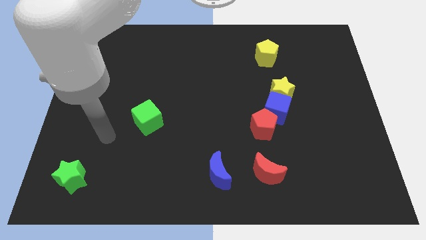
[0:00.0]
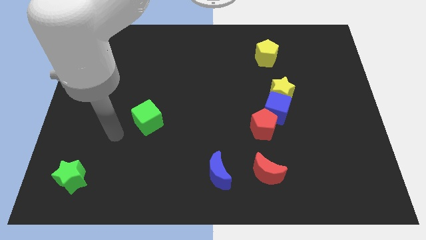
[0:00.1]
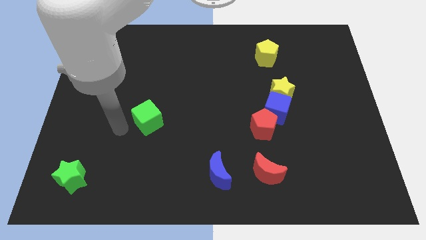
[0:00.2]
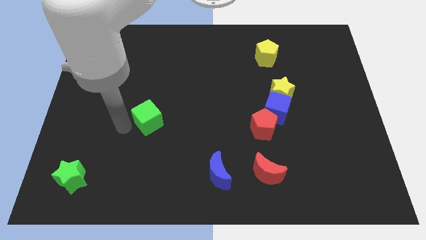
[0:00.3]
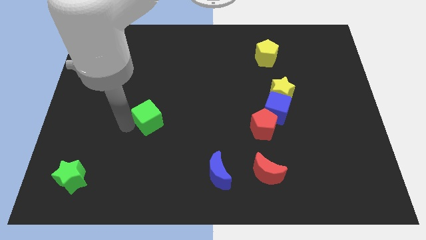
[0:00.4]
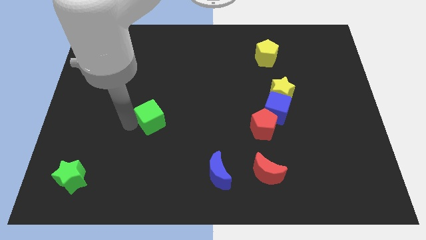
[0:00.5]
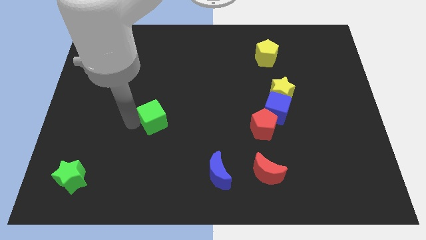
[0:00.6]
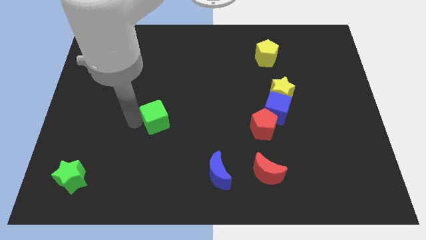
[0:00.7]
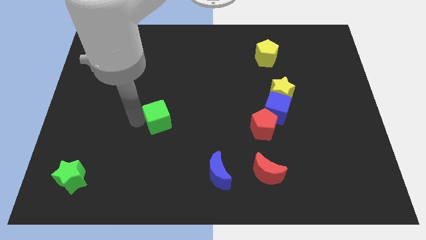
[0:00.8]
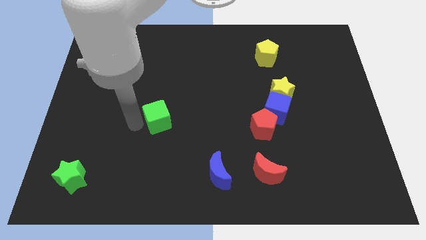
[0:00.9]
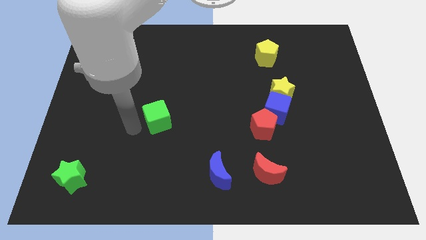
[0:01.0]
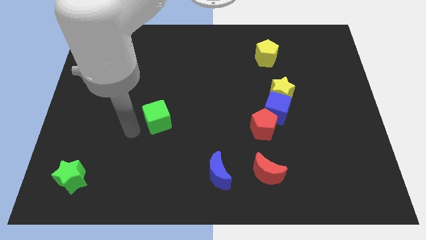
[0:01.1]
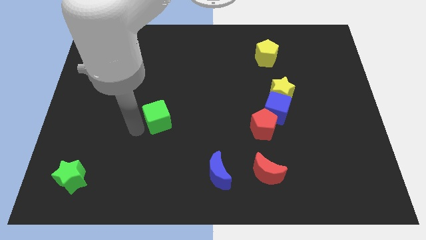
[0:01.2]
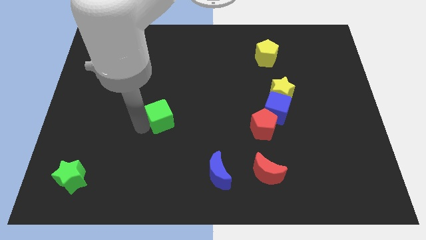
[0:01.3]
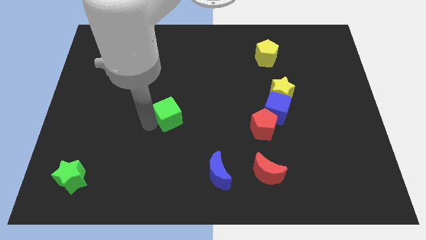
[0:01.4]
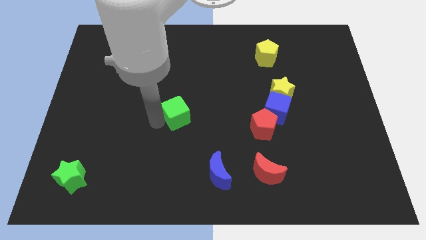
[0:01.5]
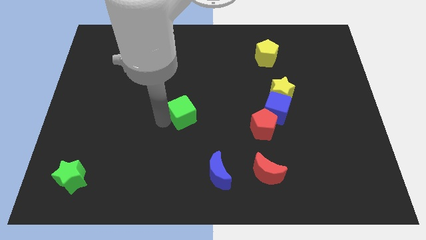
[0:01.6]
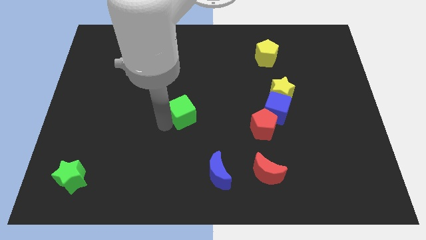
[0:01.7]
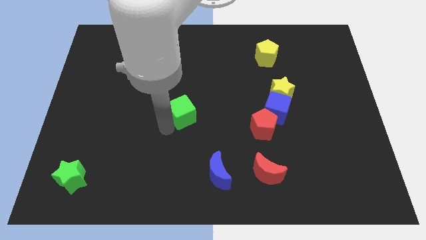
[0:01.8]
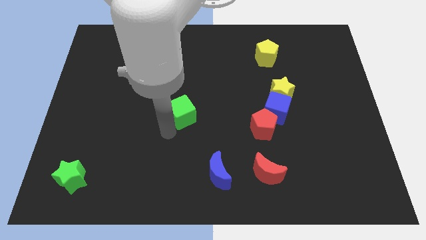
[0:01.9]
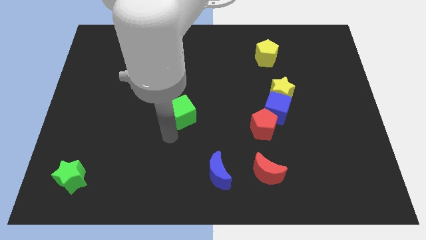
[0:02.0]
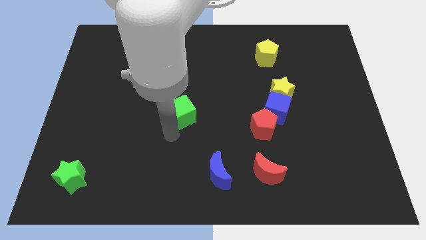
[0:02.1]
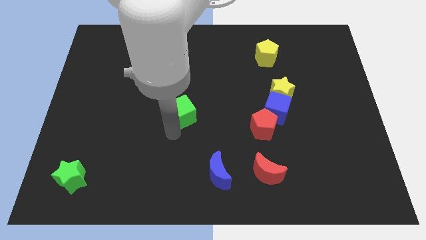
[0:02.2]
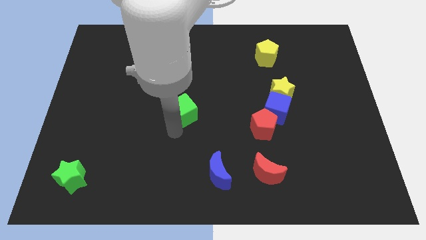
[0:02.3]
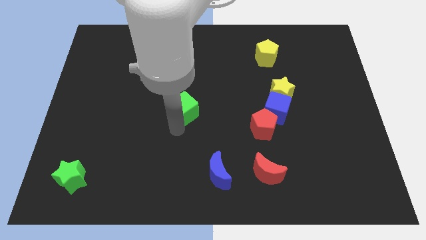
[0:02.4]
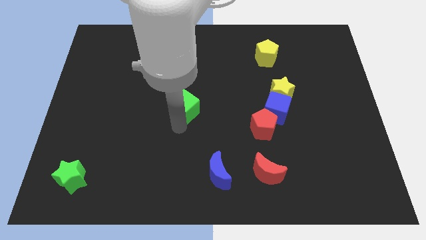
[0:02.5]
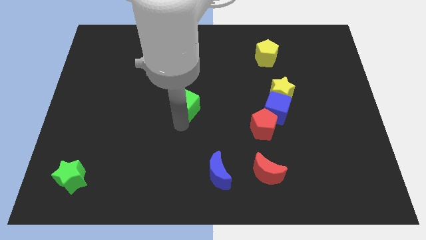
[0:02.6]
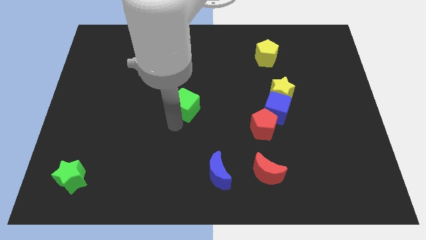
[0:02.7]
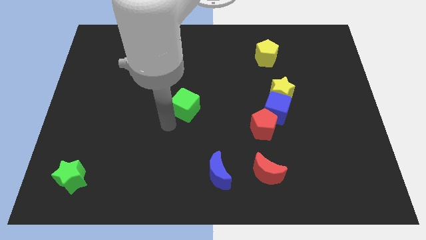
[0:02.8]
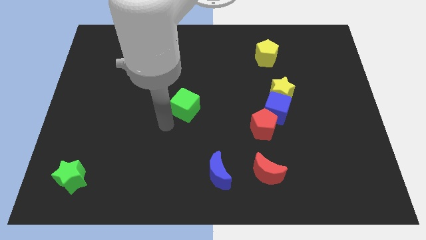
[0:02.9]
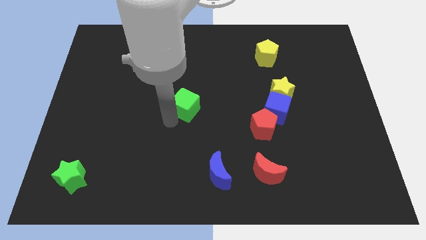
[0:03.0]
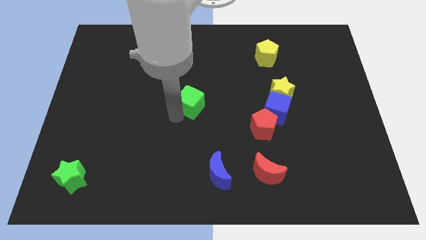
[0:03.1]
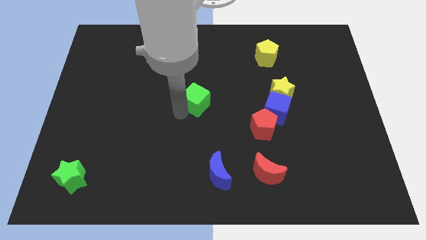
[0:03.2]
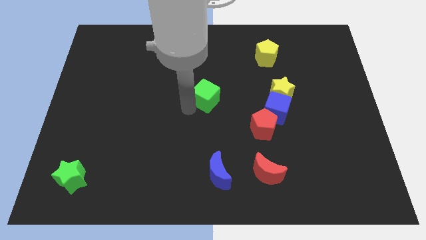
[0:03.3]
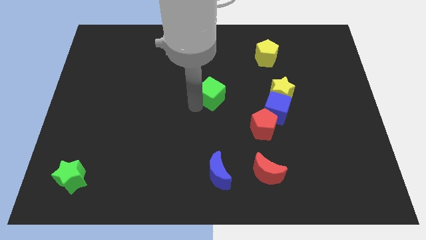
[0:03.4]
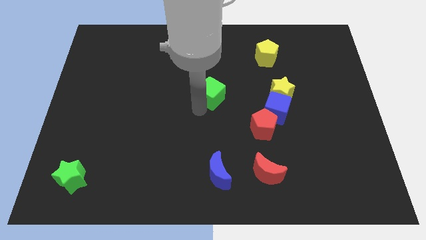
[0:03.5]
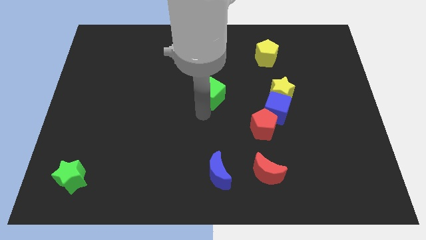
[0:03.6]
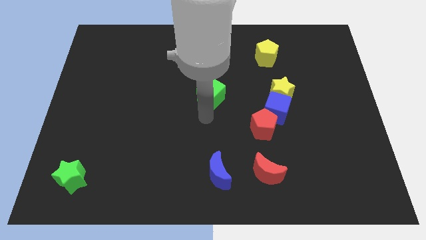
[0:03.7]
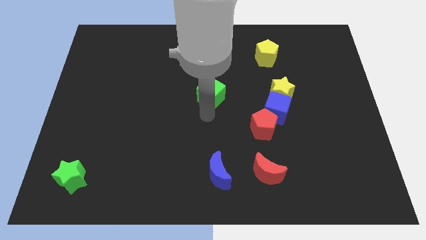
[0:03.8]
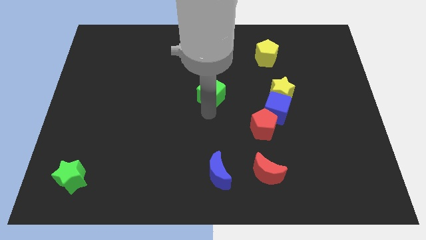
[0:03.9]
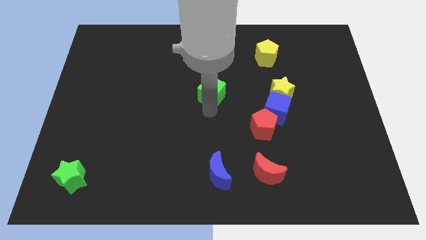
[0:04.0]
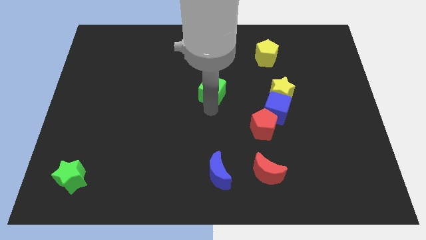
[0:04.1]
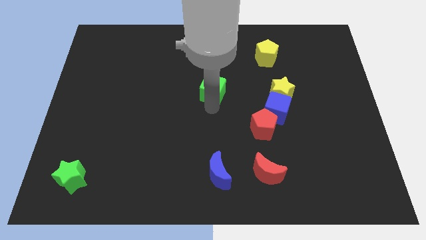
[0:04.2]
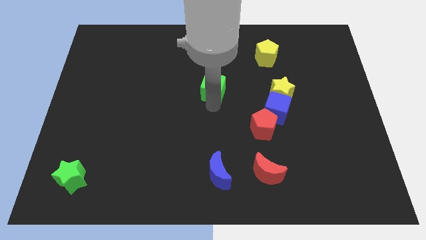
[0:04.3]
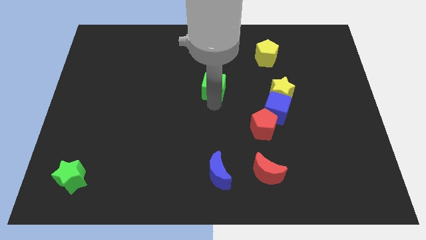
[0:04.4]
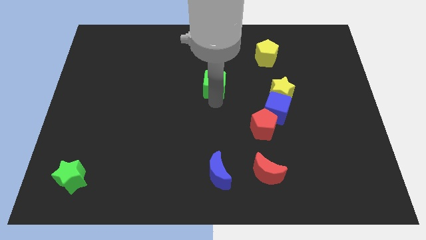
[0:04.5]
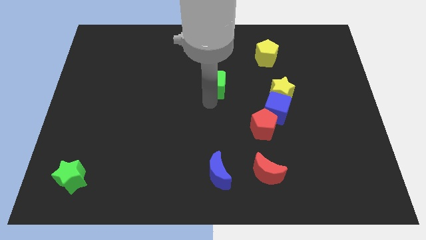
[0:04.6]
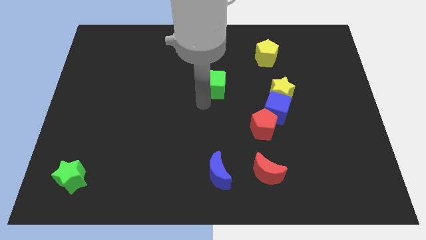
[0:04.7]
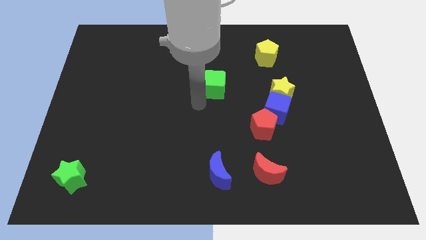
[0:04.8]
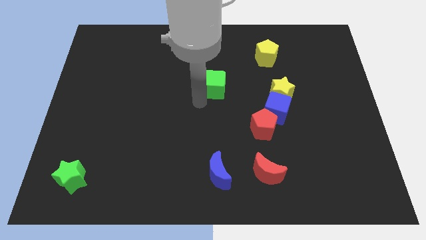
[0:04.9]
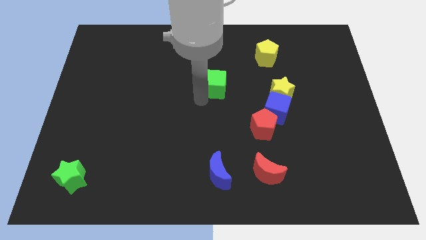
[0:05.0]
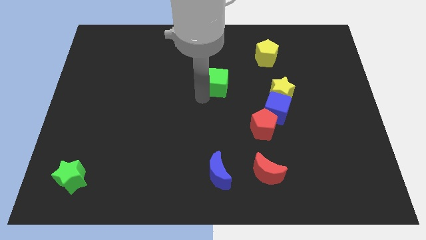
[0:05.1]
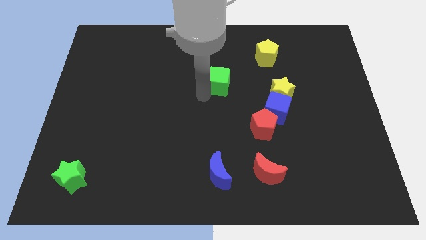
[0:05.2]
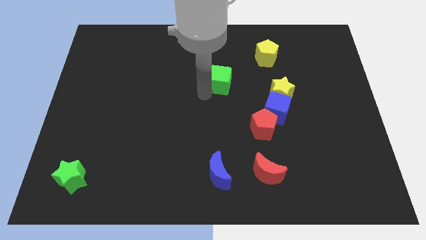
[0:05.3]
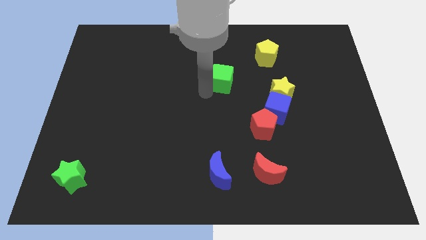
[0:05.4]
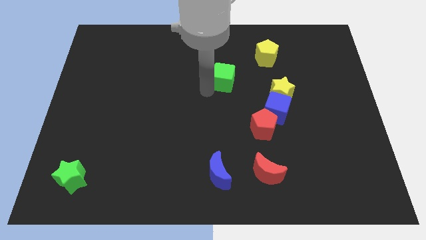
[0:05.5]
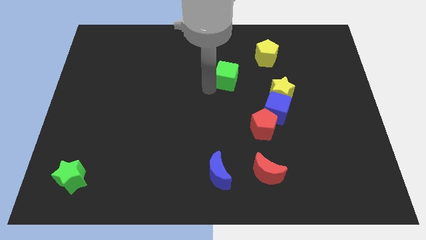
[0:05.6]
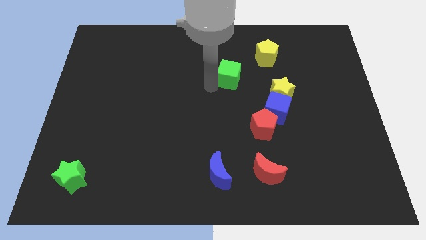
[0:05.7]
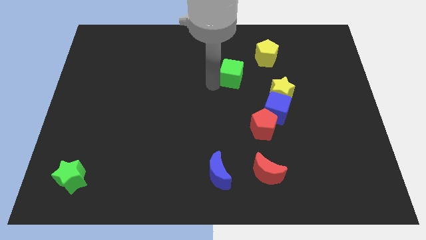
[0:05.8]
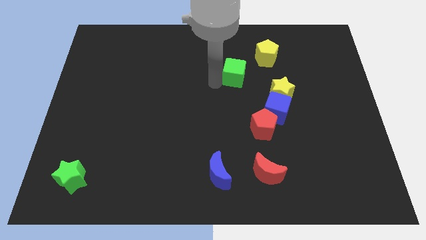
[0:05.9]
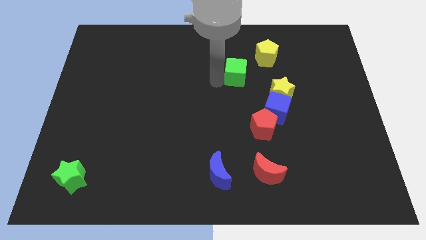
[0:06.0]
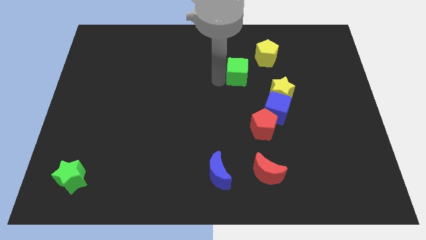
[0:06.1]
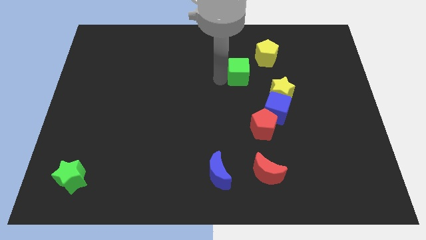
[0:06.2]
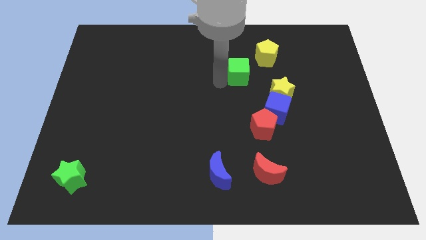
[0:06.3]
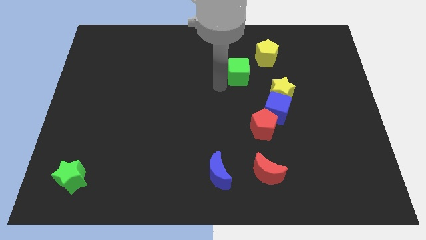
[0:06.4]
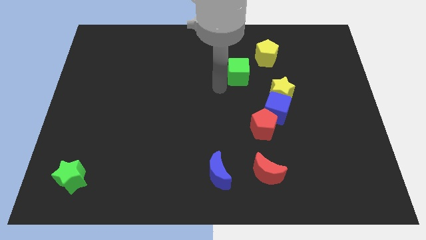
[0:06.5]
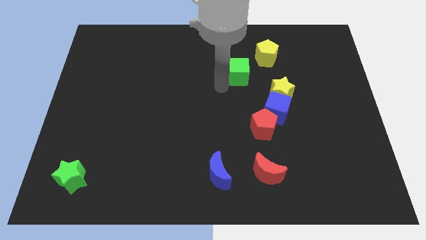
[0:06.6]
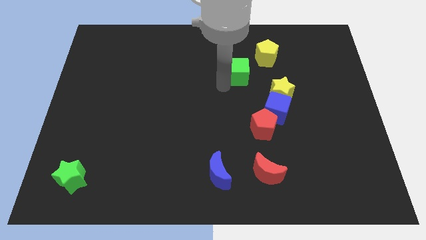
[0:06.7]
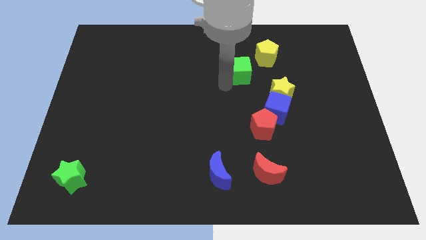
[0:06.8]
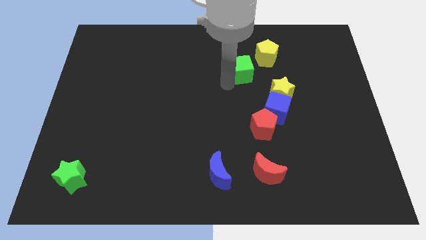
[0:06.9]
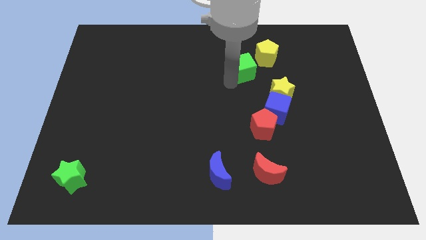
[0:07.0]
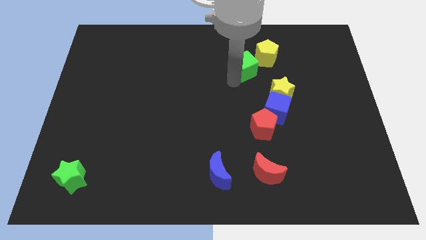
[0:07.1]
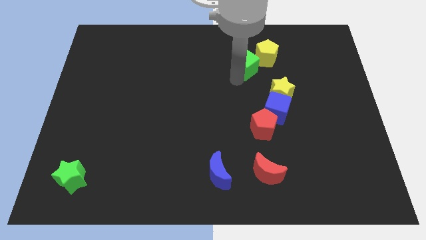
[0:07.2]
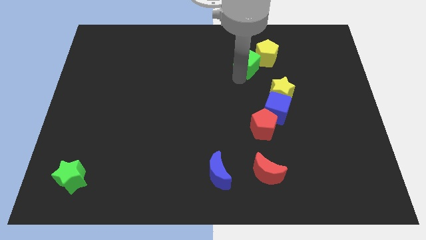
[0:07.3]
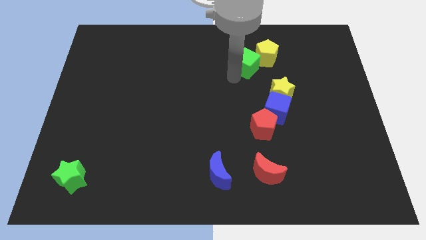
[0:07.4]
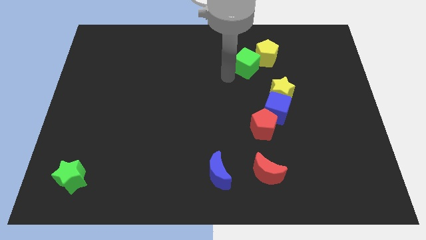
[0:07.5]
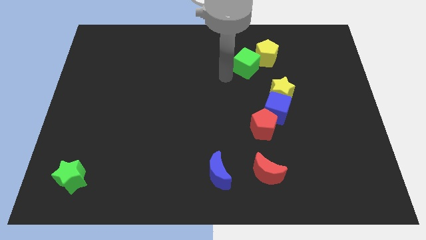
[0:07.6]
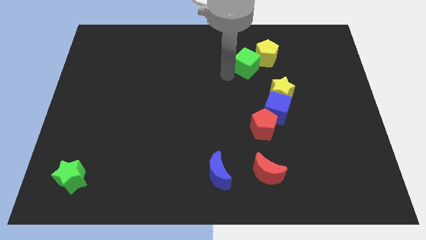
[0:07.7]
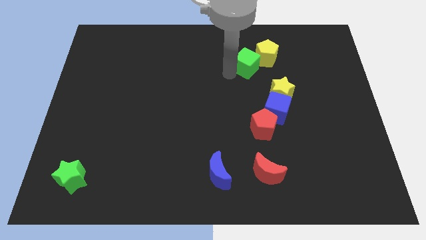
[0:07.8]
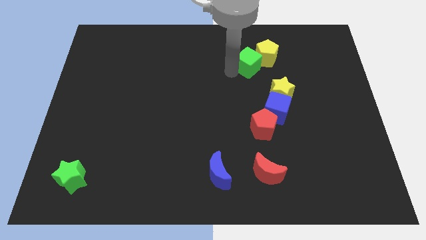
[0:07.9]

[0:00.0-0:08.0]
put the green cube close to the yellow pentagon
